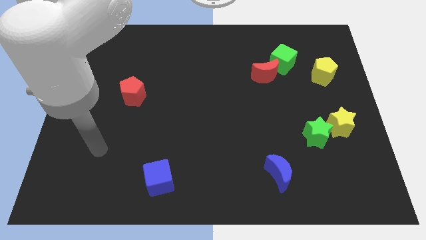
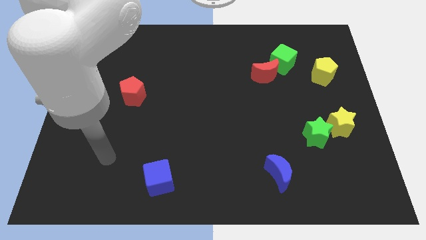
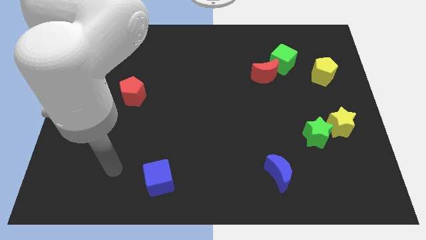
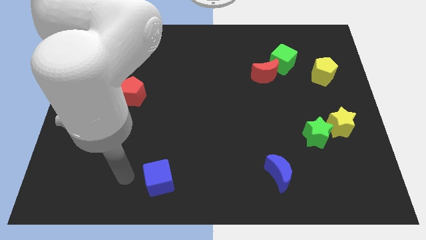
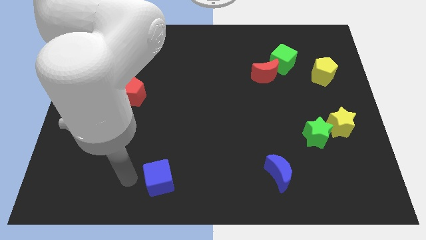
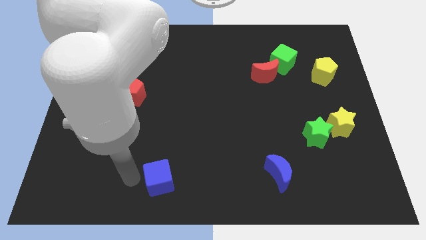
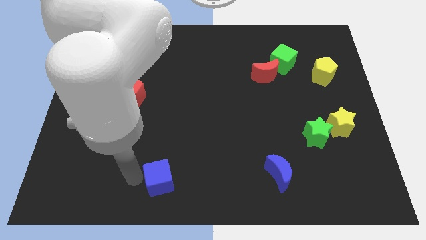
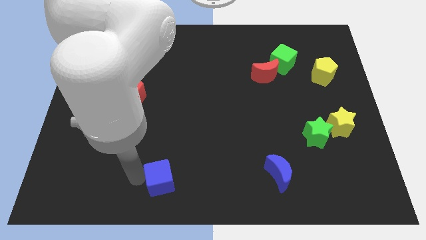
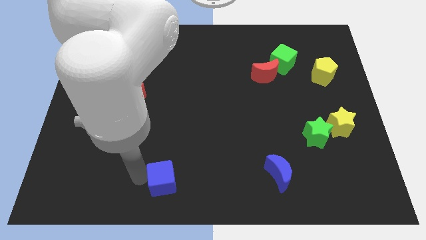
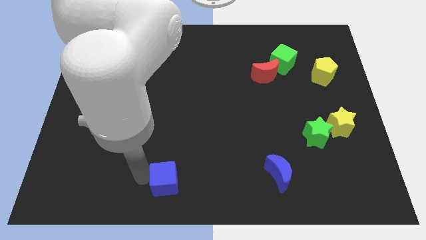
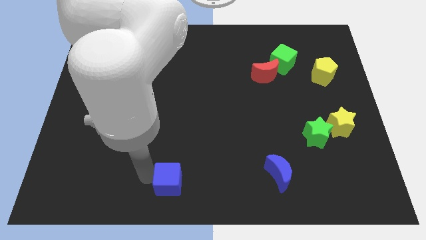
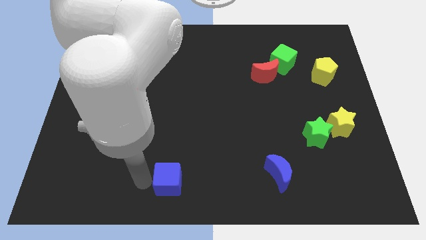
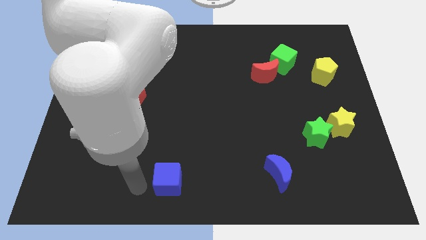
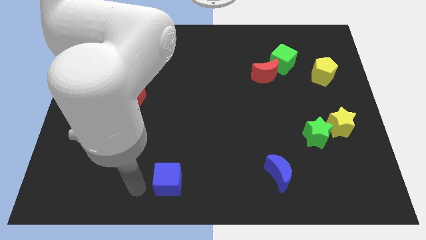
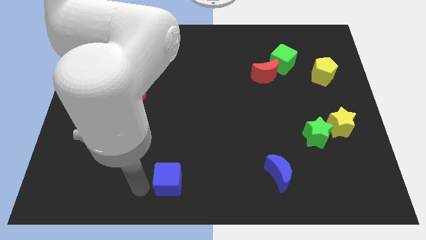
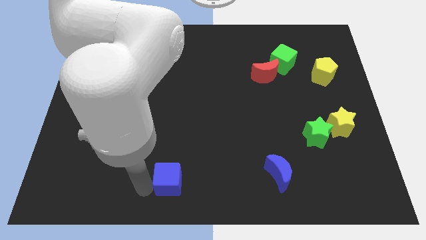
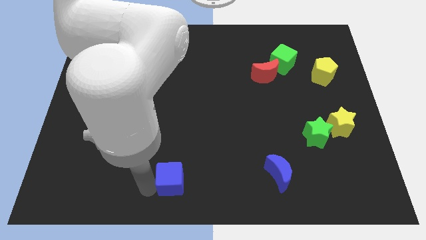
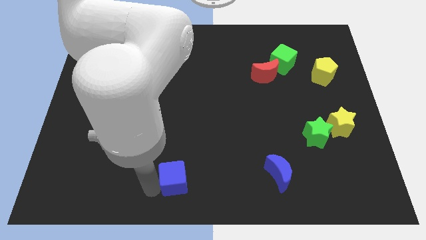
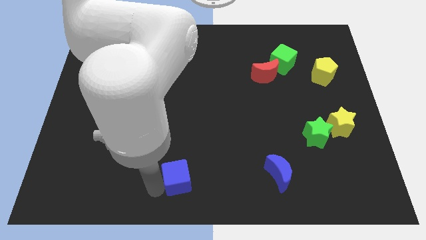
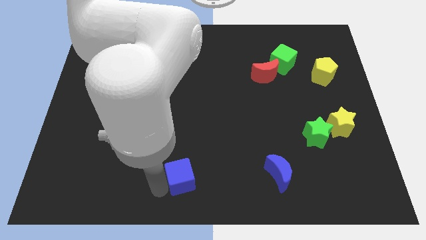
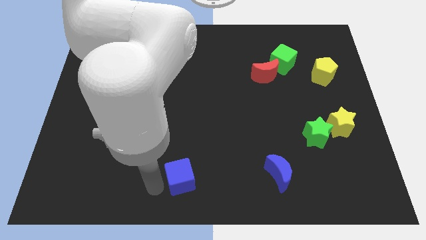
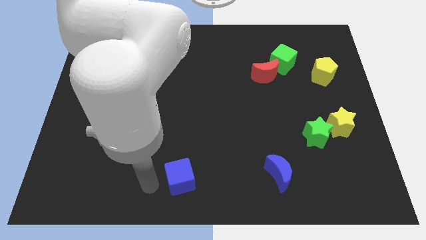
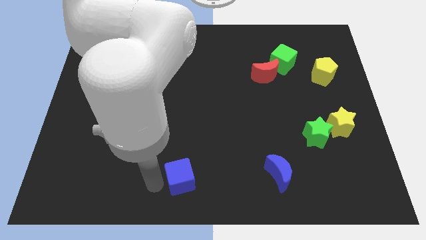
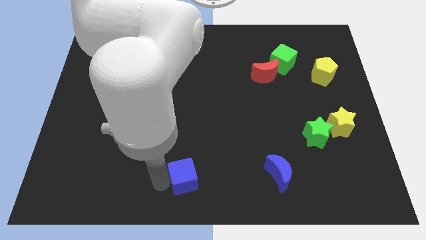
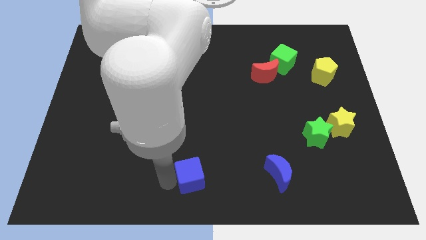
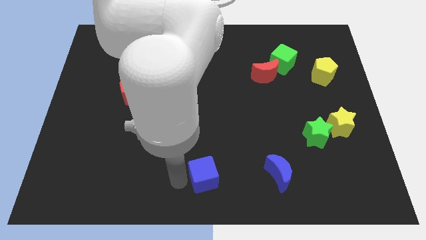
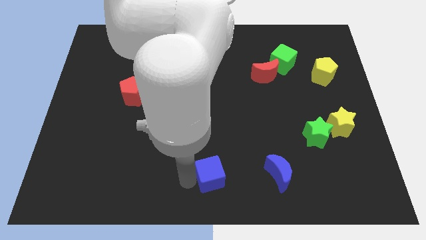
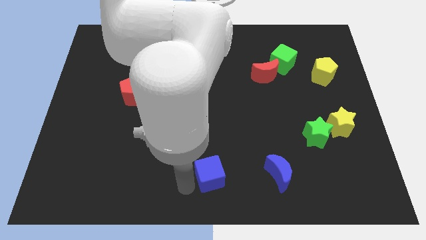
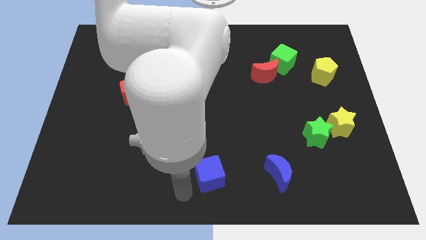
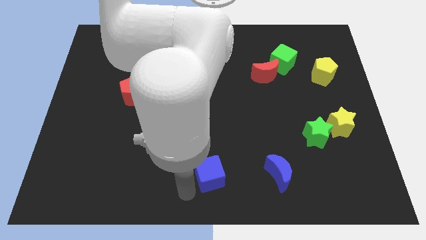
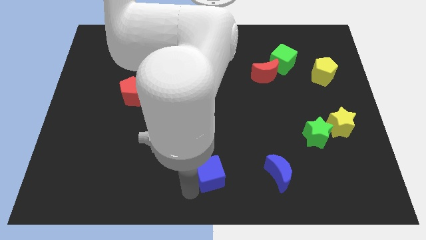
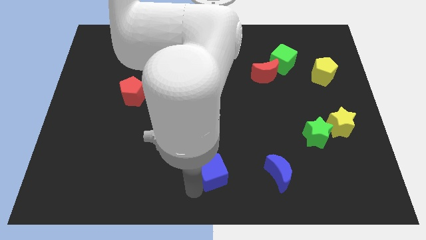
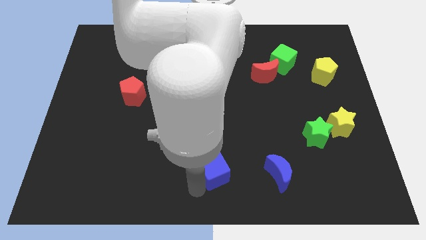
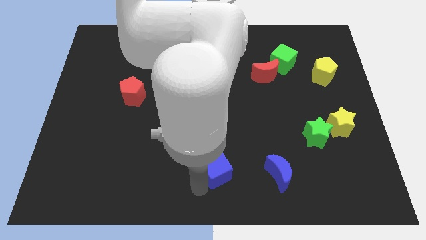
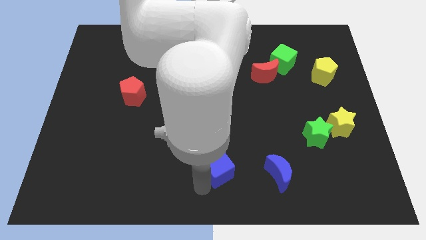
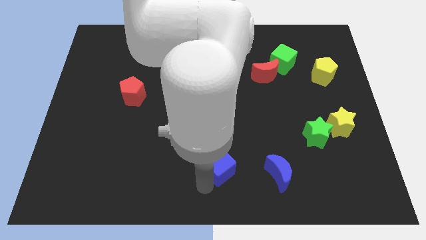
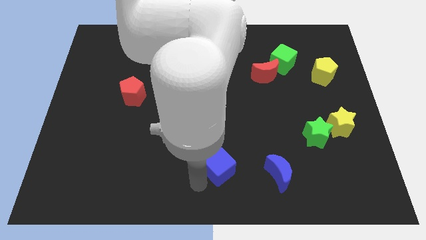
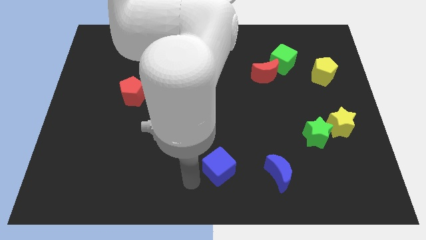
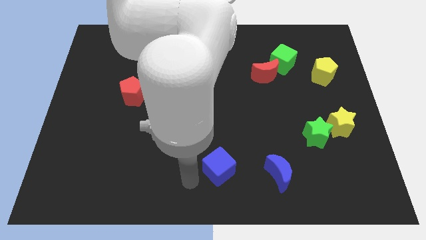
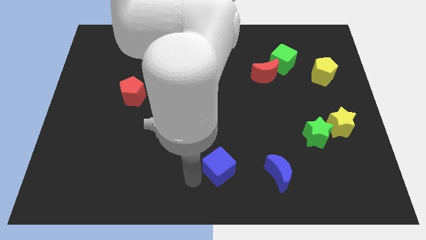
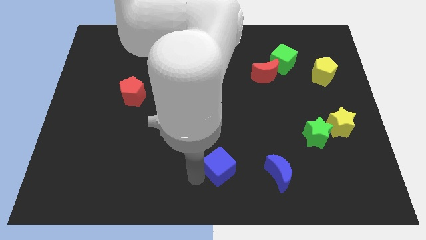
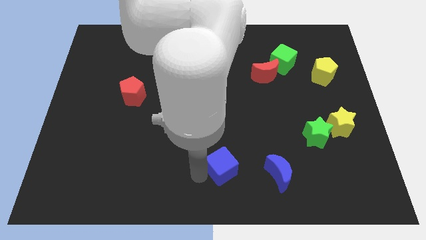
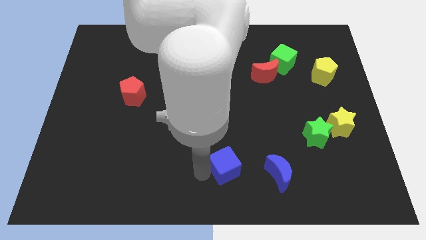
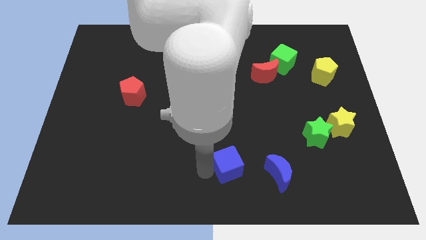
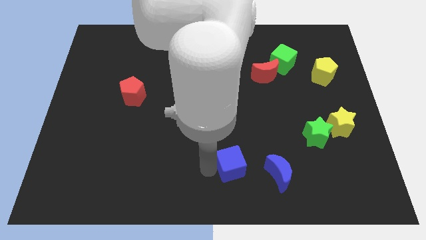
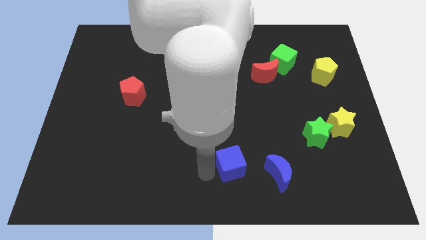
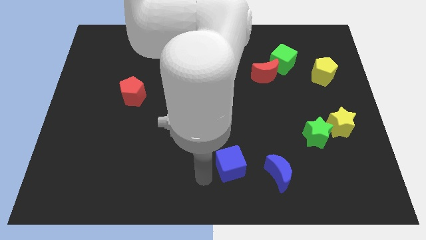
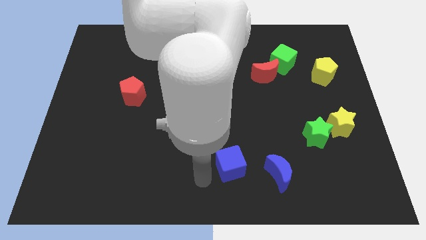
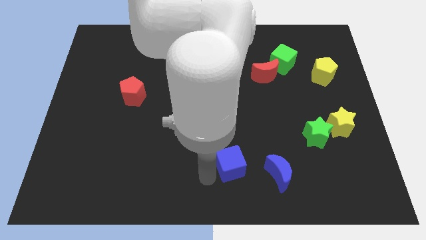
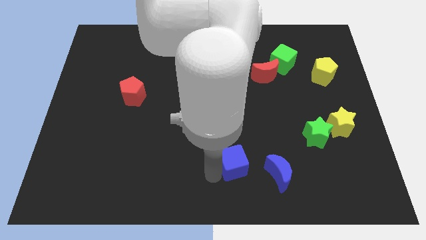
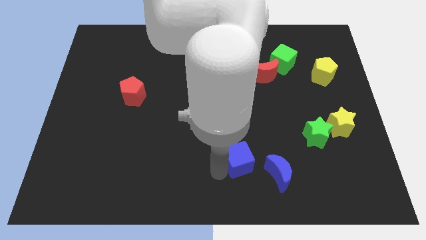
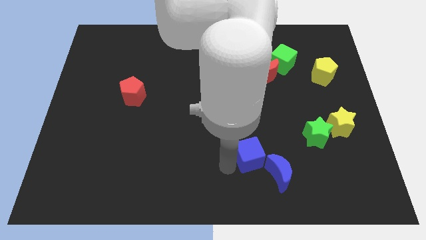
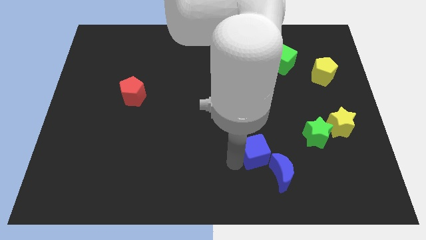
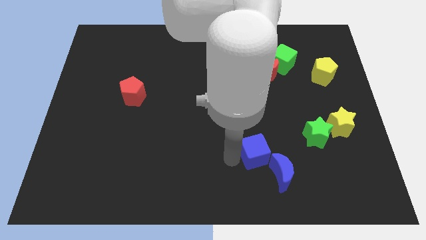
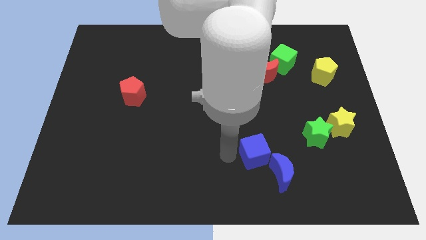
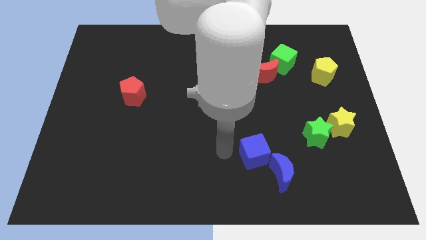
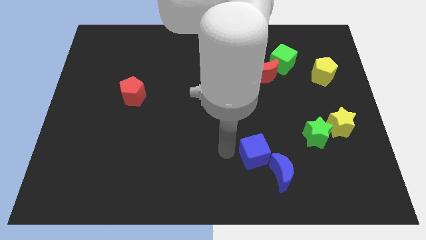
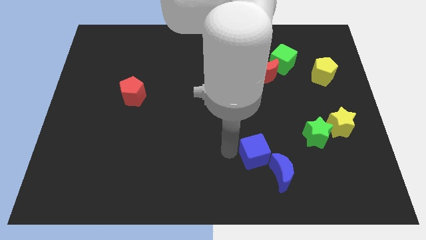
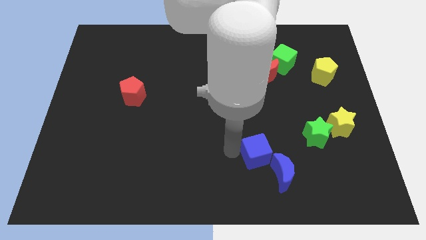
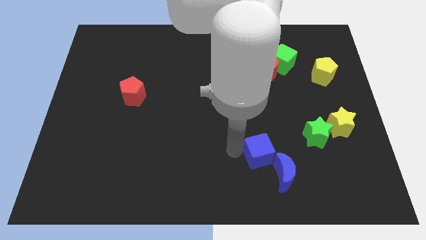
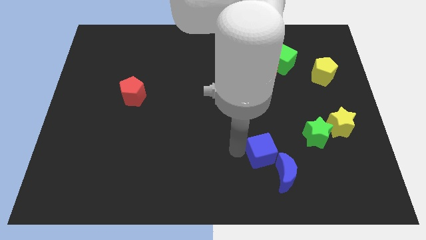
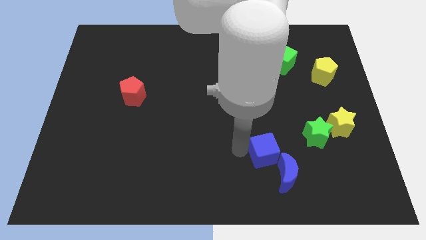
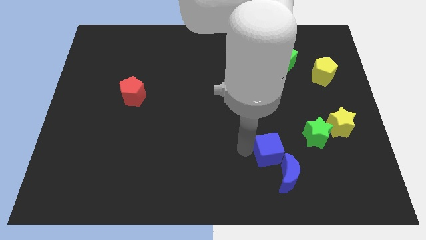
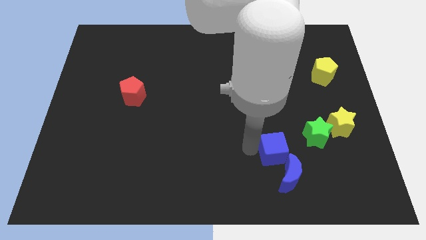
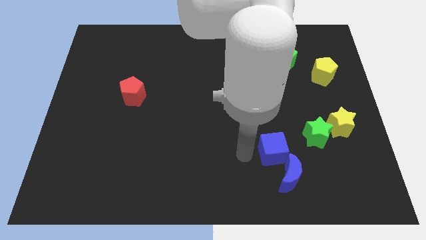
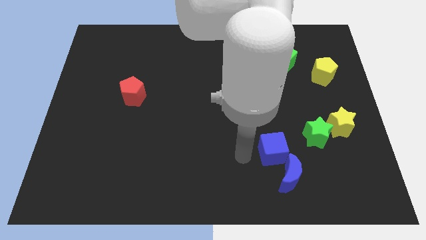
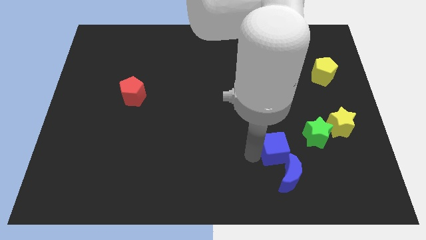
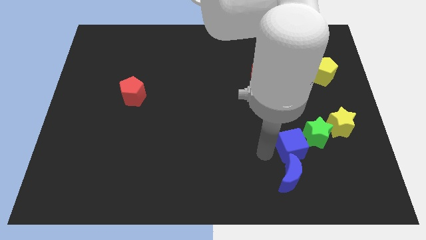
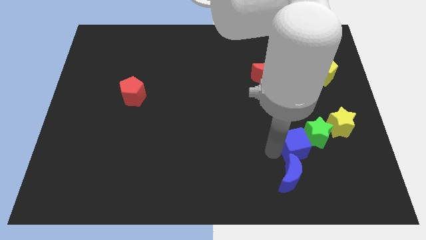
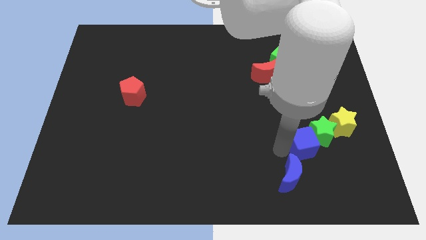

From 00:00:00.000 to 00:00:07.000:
slide the blue cube to the bottom left of the yellow star

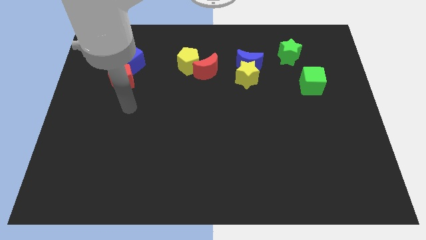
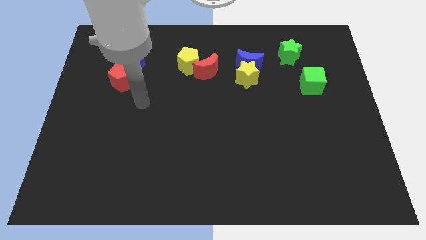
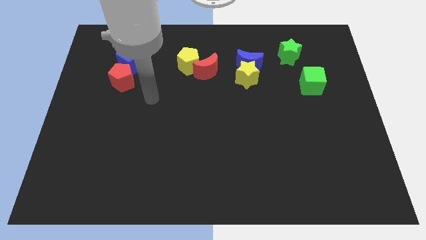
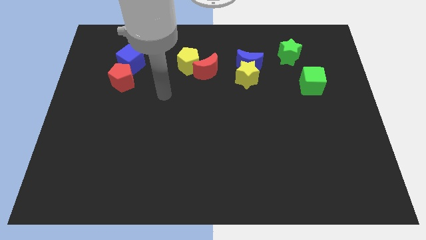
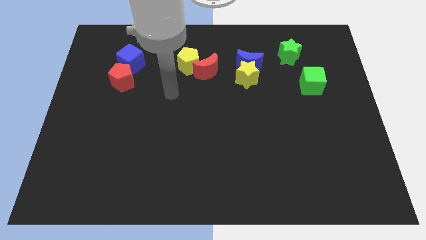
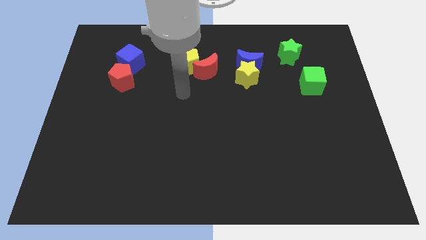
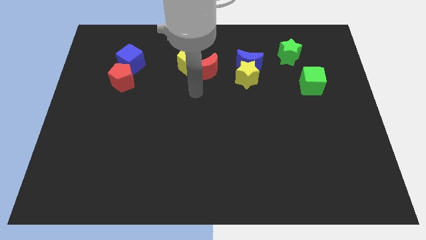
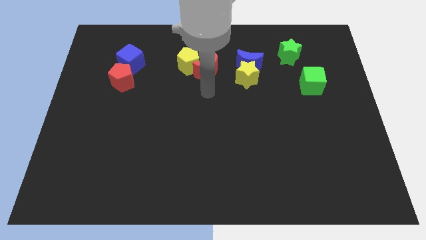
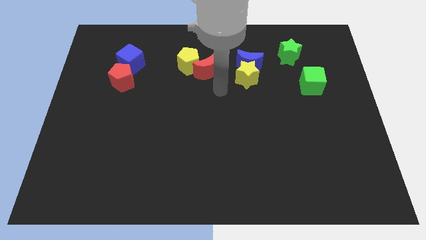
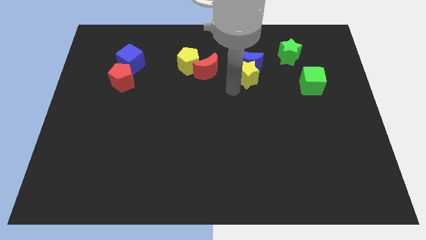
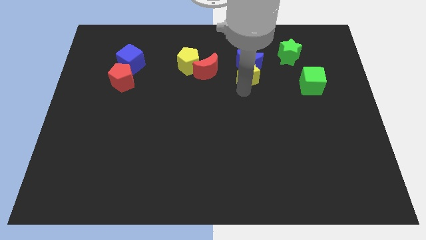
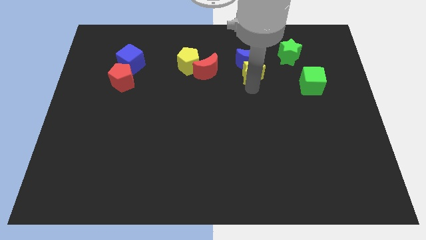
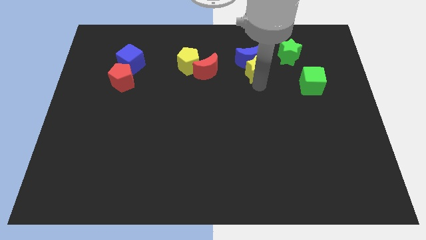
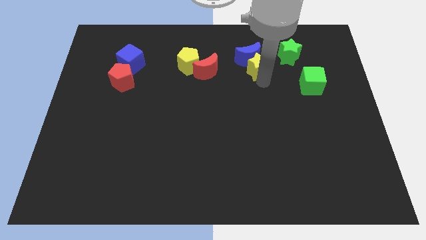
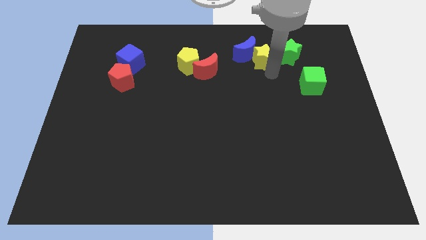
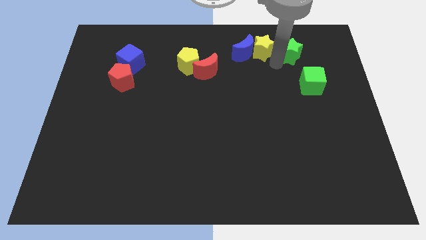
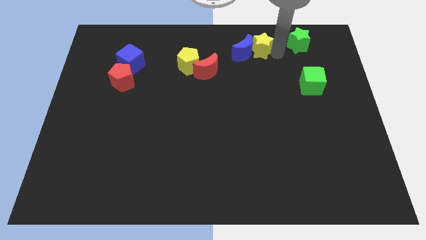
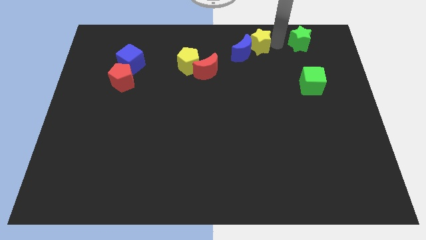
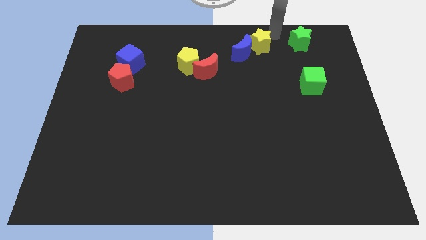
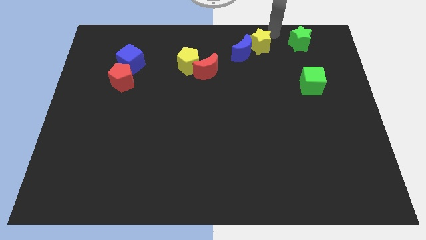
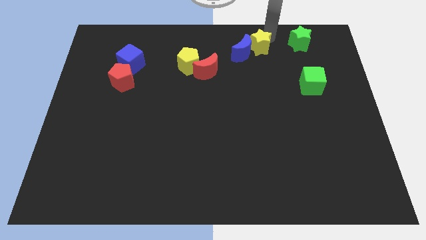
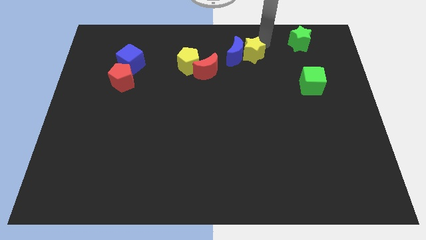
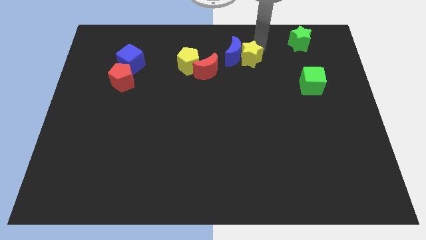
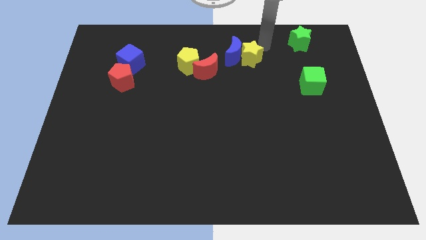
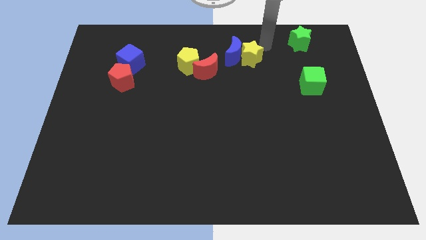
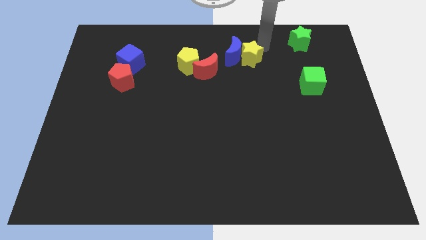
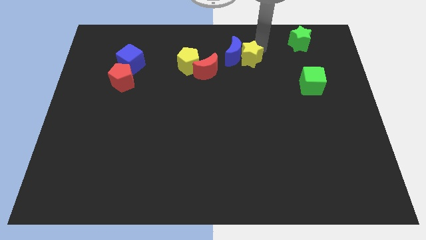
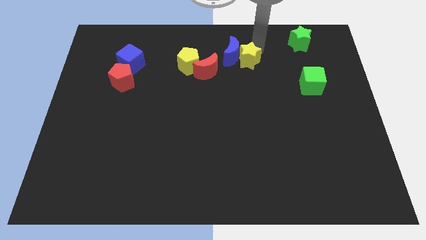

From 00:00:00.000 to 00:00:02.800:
slide the yellow star just right of the yellow pentagon
